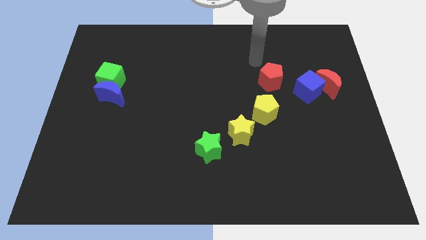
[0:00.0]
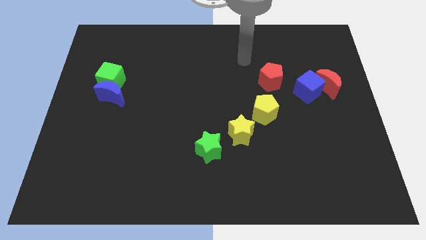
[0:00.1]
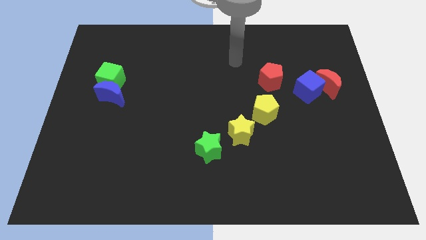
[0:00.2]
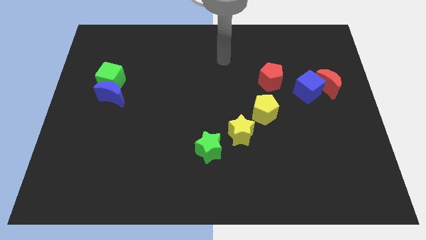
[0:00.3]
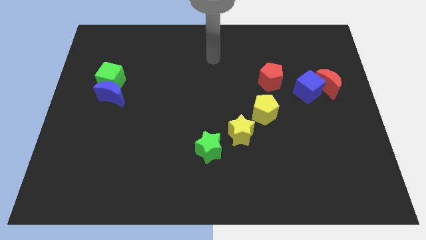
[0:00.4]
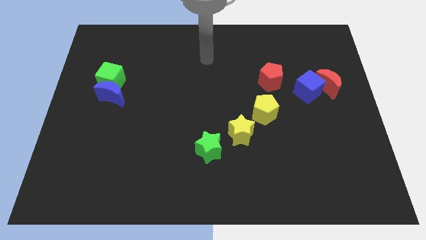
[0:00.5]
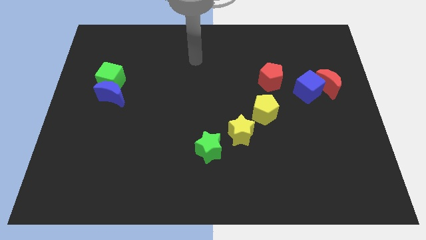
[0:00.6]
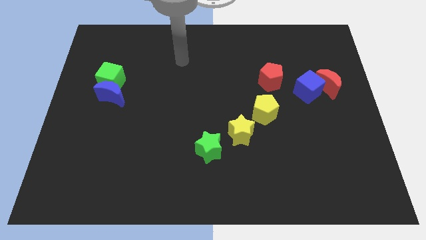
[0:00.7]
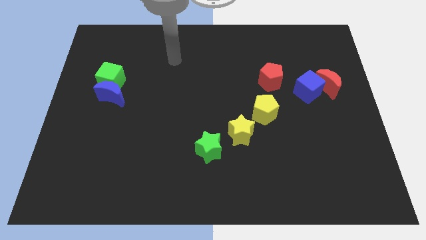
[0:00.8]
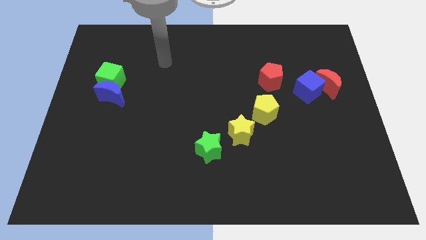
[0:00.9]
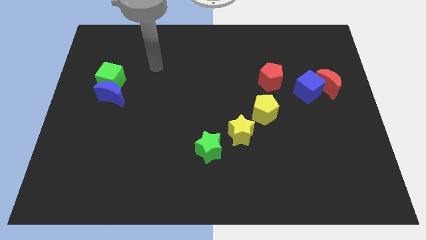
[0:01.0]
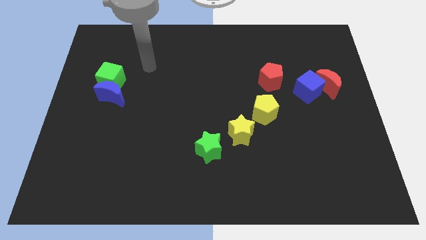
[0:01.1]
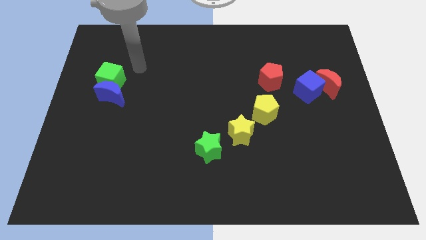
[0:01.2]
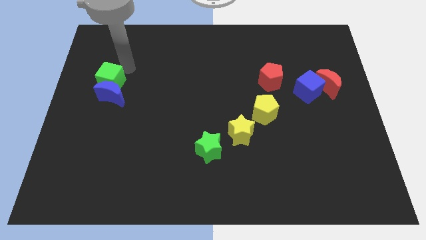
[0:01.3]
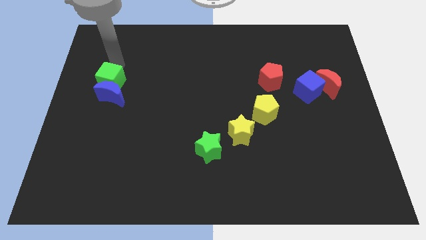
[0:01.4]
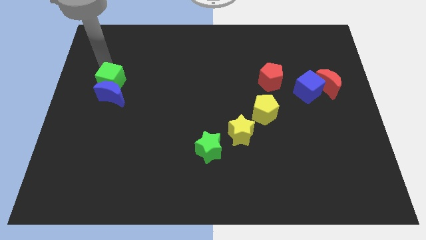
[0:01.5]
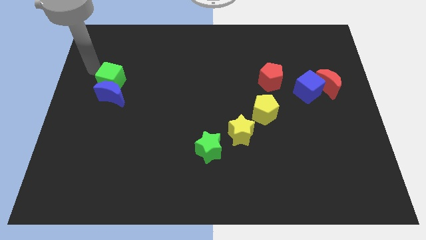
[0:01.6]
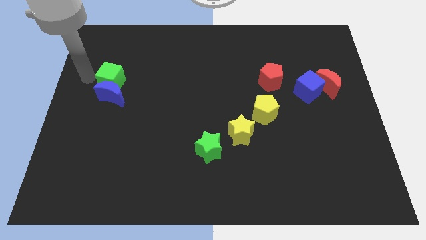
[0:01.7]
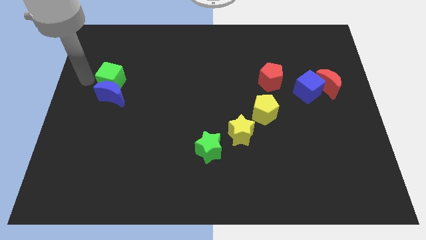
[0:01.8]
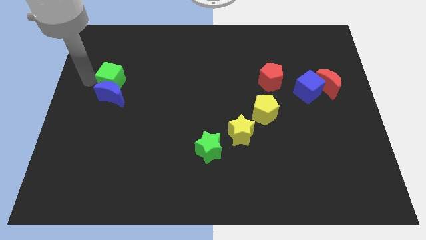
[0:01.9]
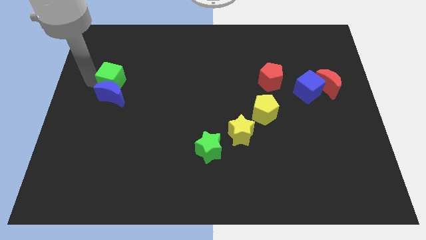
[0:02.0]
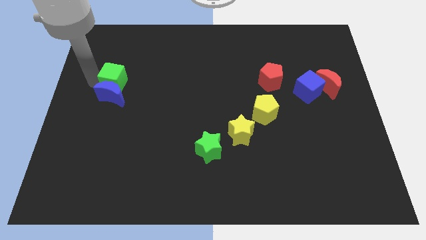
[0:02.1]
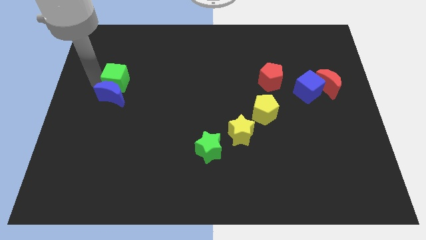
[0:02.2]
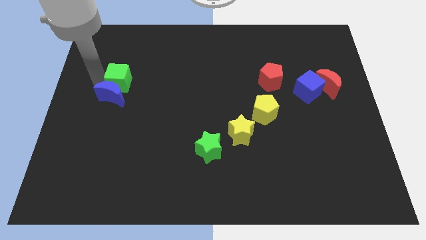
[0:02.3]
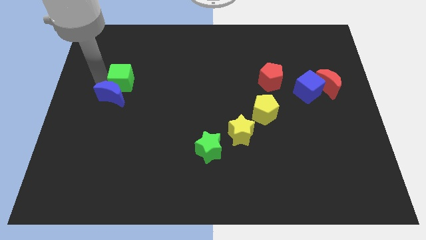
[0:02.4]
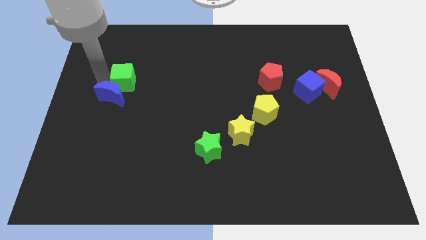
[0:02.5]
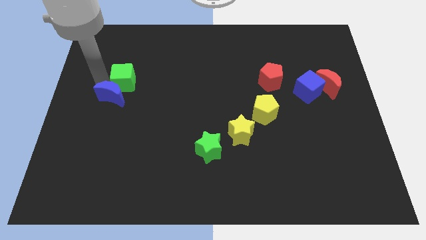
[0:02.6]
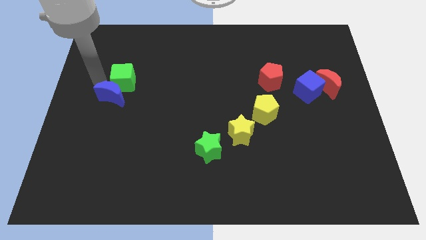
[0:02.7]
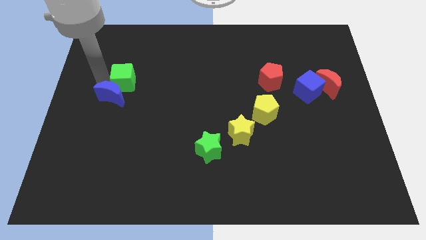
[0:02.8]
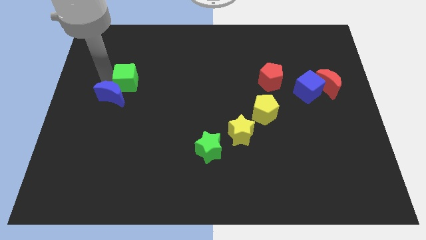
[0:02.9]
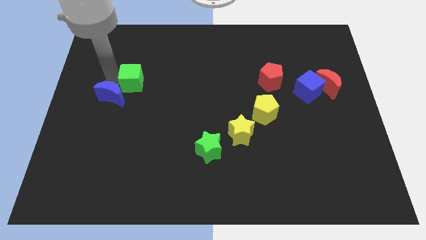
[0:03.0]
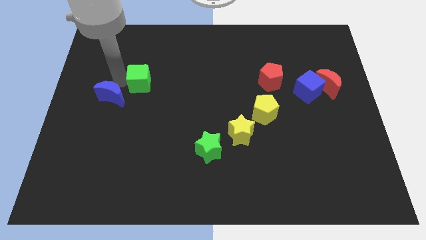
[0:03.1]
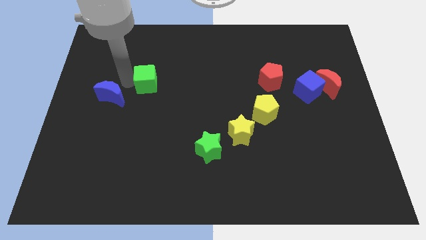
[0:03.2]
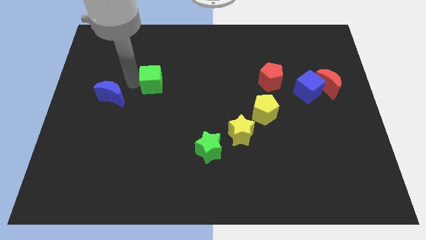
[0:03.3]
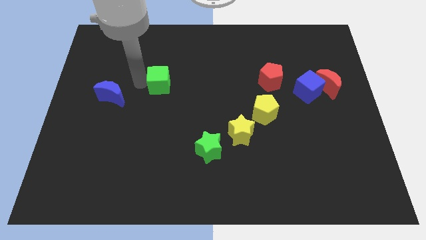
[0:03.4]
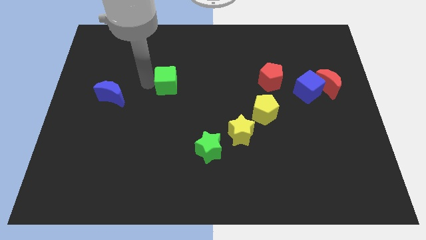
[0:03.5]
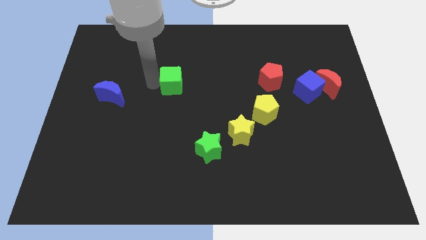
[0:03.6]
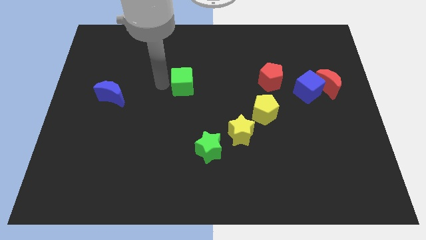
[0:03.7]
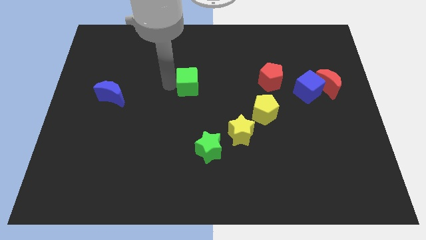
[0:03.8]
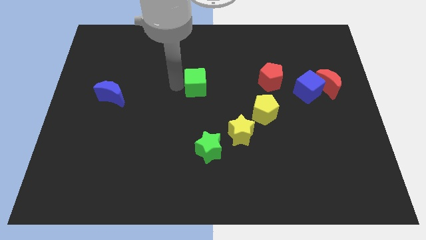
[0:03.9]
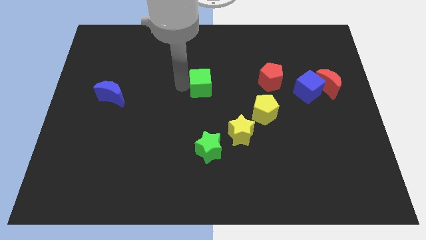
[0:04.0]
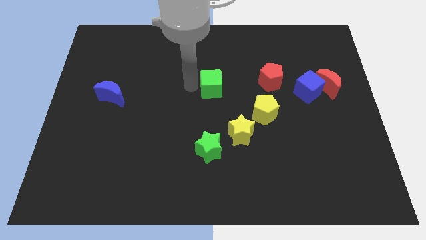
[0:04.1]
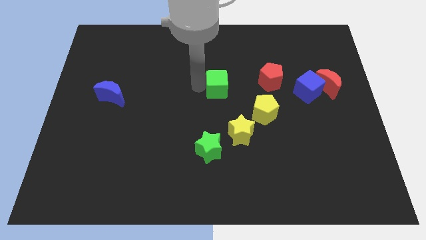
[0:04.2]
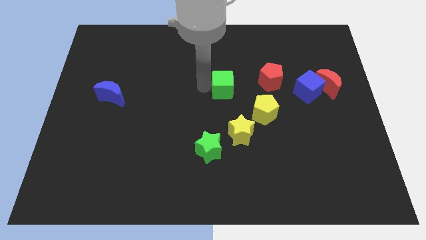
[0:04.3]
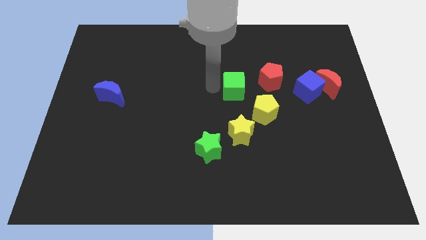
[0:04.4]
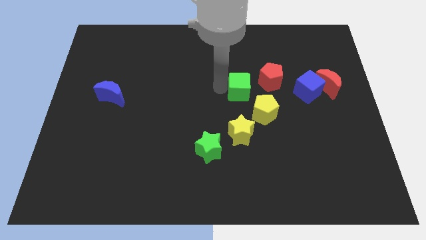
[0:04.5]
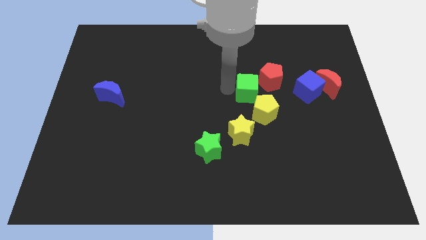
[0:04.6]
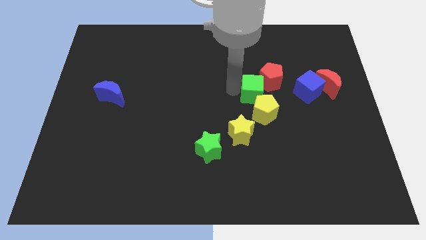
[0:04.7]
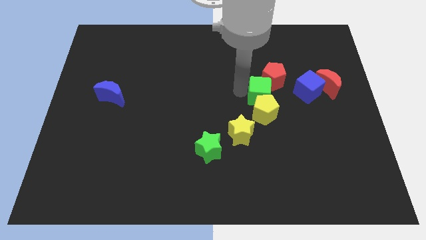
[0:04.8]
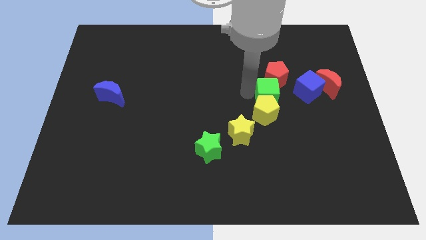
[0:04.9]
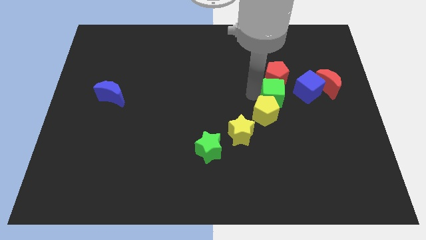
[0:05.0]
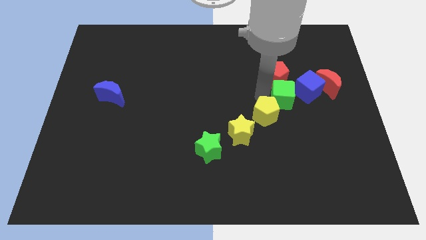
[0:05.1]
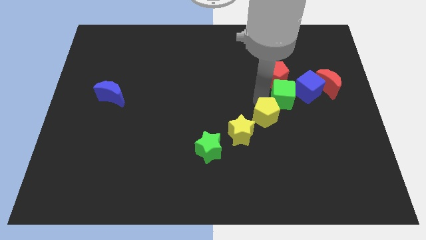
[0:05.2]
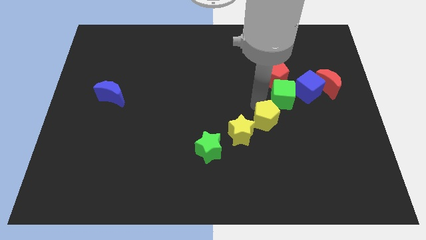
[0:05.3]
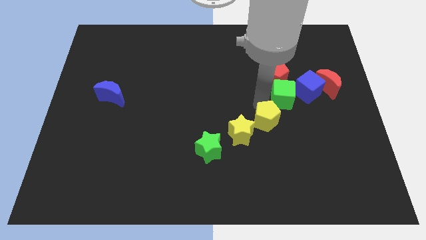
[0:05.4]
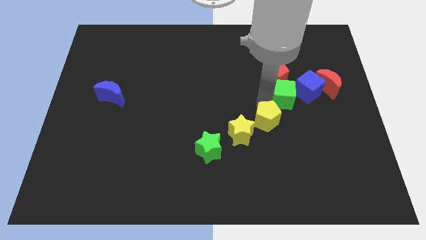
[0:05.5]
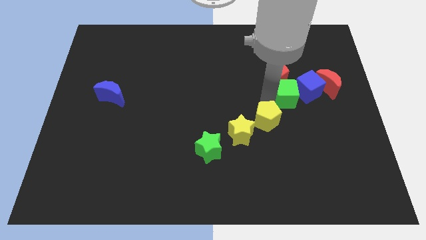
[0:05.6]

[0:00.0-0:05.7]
move the green cube towards the blue cube

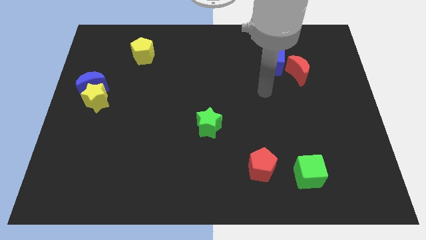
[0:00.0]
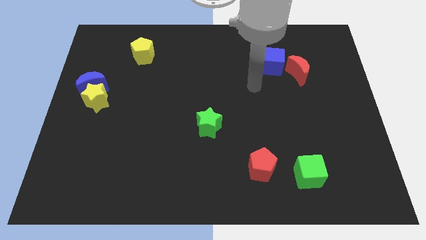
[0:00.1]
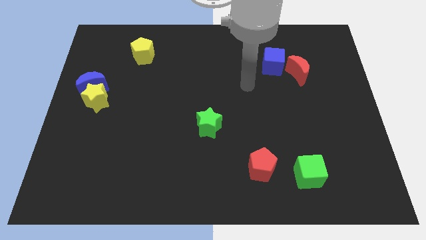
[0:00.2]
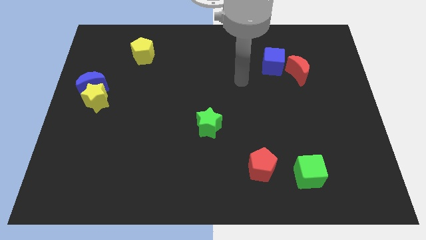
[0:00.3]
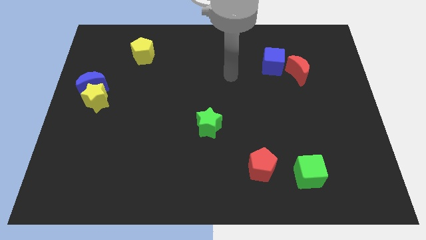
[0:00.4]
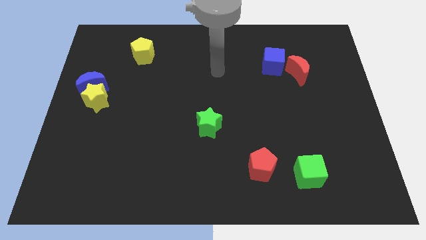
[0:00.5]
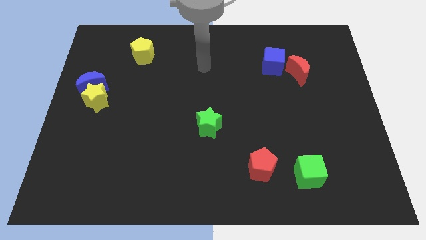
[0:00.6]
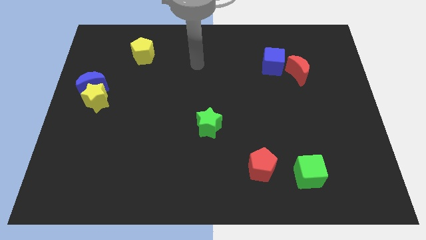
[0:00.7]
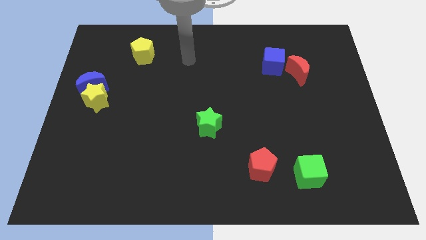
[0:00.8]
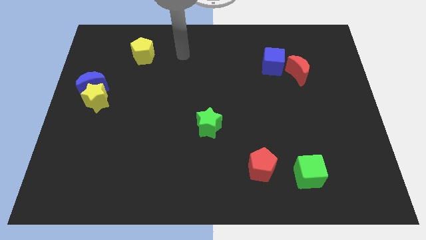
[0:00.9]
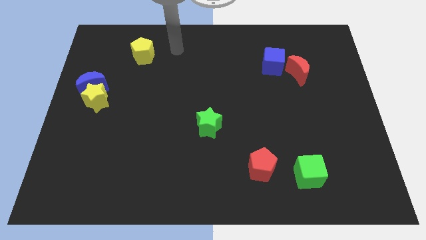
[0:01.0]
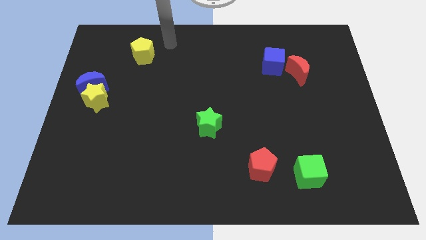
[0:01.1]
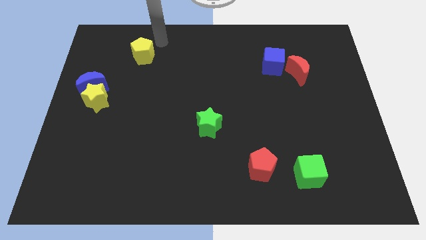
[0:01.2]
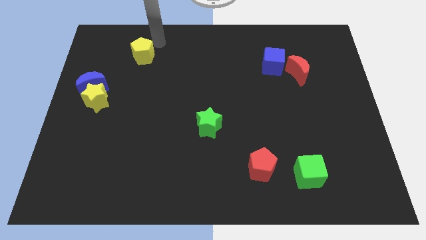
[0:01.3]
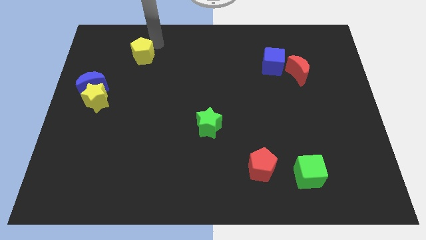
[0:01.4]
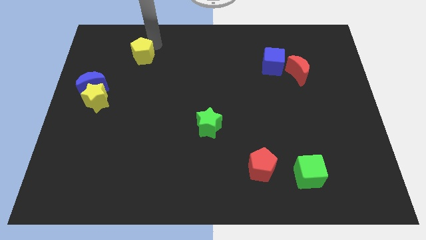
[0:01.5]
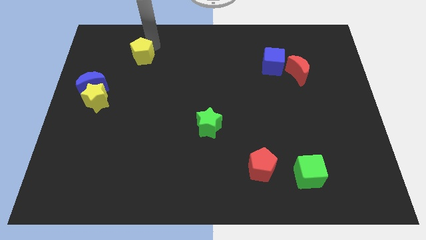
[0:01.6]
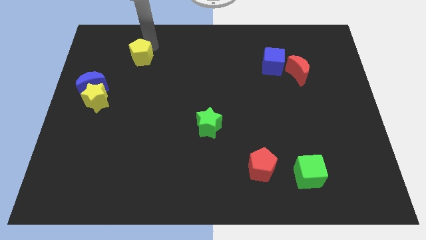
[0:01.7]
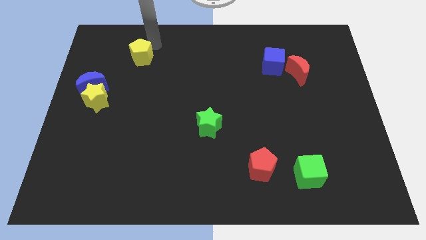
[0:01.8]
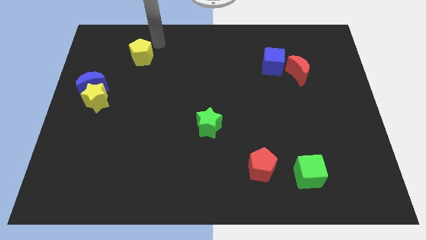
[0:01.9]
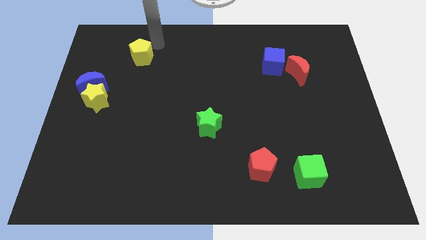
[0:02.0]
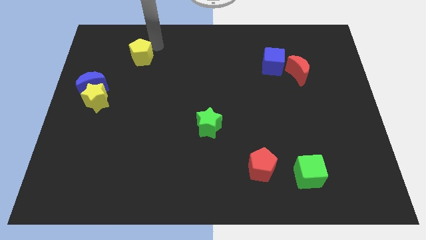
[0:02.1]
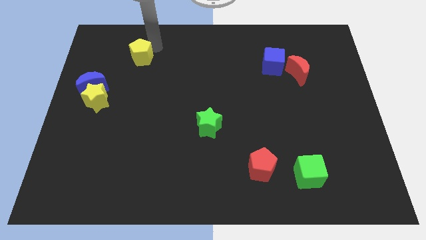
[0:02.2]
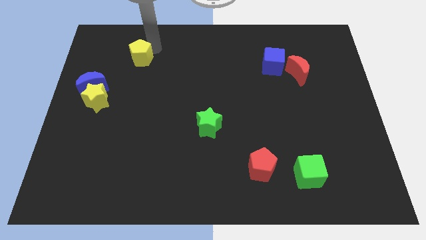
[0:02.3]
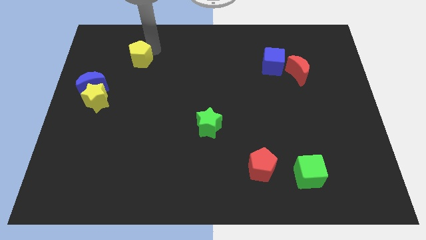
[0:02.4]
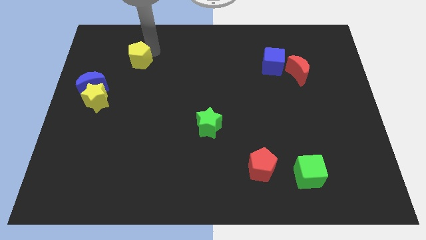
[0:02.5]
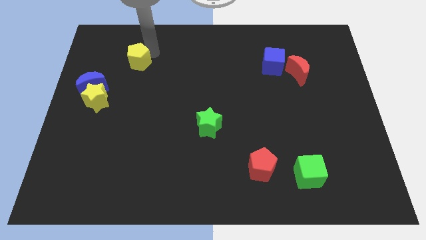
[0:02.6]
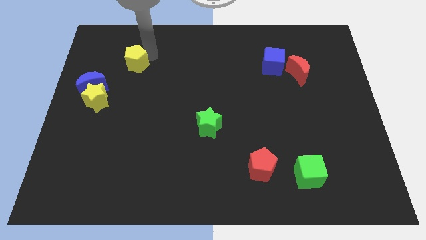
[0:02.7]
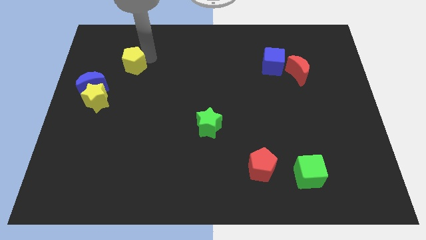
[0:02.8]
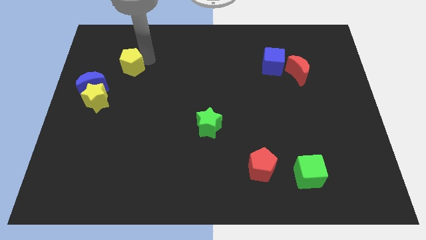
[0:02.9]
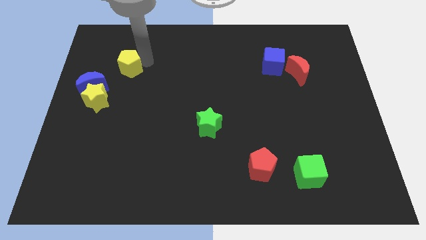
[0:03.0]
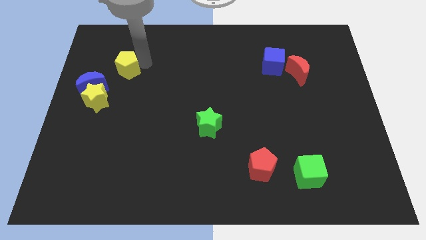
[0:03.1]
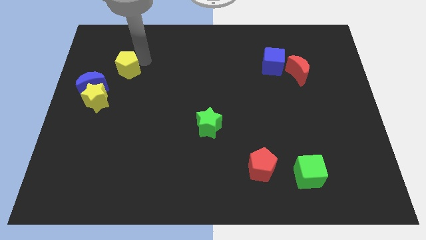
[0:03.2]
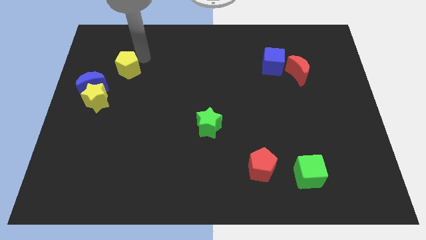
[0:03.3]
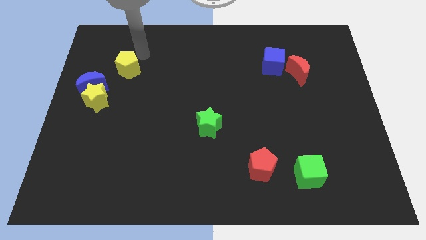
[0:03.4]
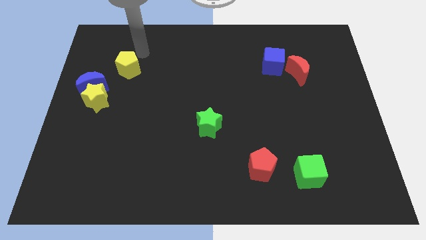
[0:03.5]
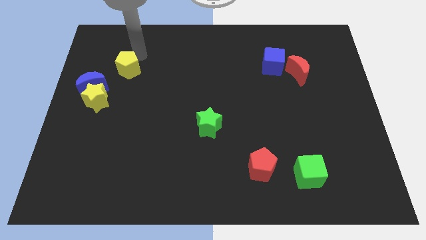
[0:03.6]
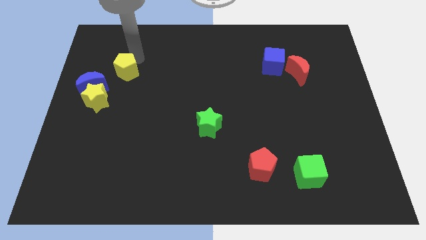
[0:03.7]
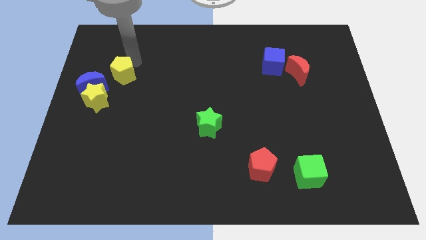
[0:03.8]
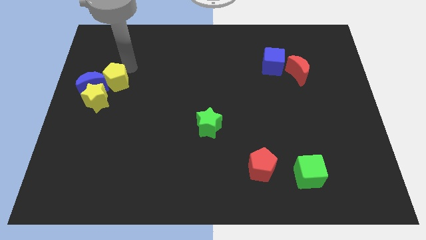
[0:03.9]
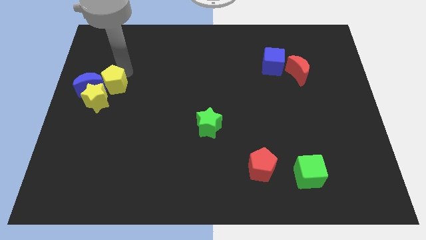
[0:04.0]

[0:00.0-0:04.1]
slide the yellow pentagon to the yellow star
